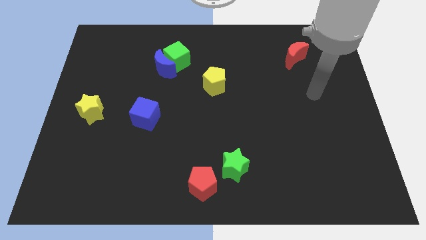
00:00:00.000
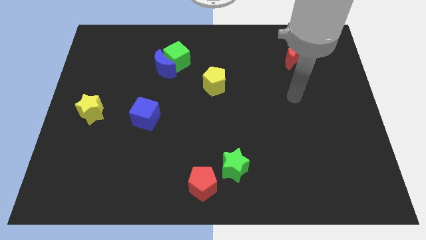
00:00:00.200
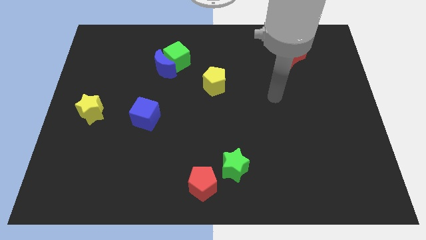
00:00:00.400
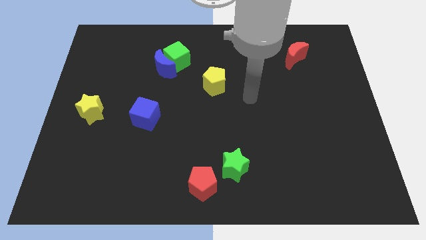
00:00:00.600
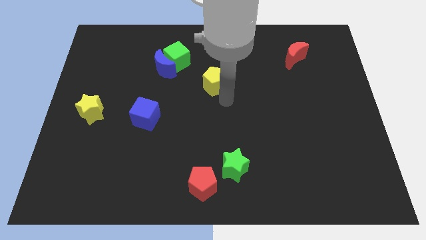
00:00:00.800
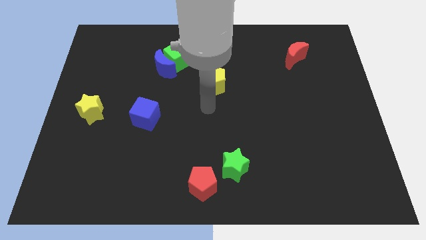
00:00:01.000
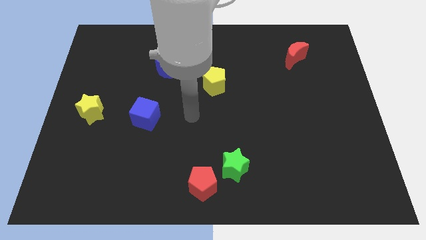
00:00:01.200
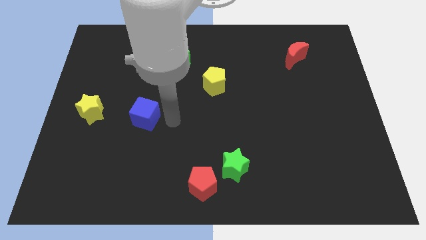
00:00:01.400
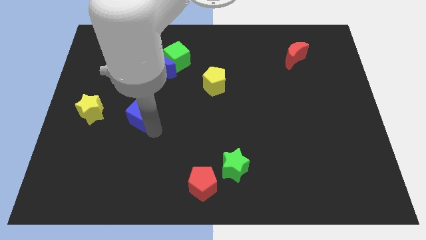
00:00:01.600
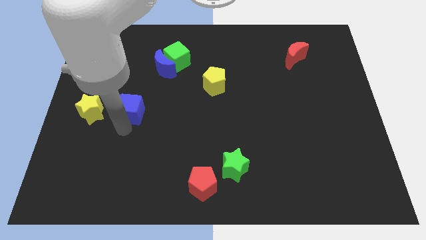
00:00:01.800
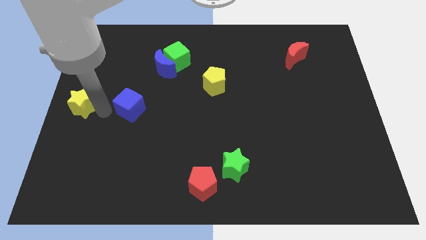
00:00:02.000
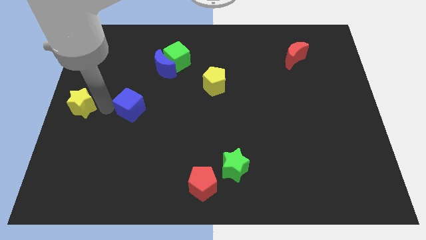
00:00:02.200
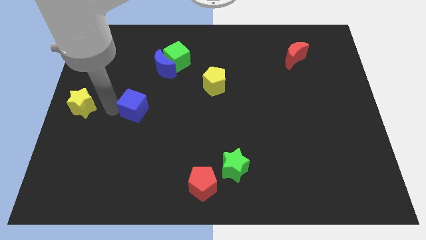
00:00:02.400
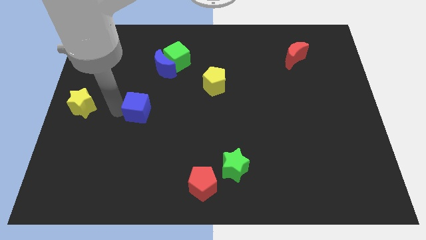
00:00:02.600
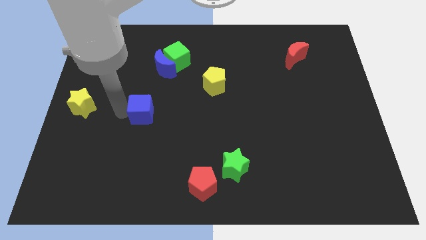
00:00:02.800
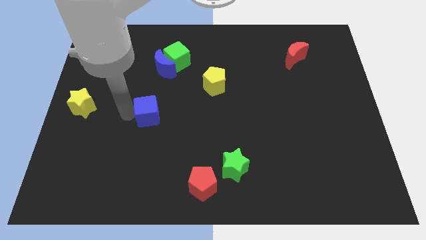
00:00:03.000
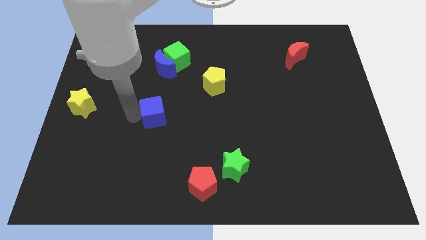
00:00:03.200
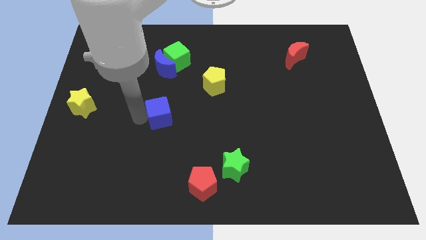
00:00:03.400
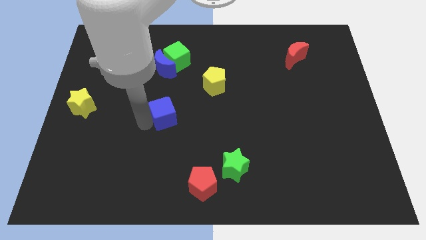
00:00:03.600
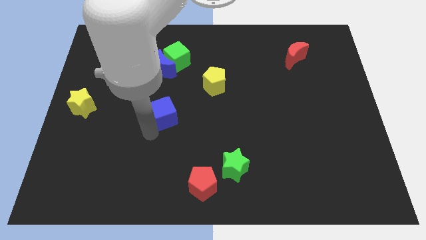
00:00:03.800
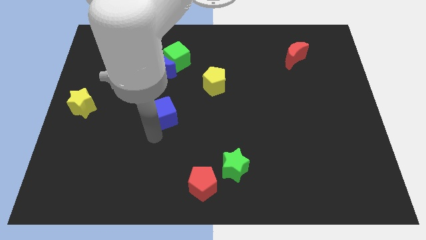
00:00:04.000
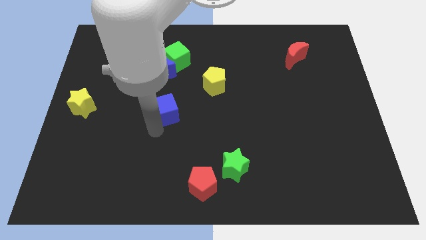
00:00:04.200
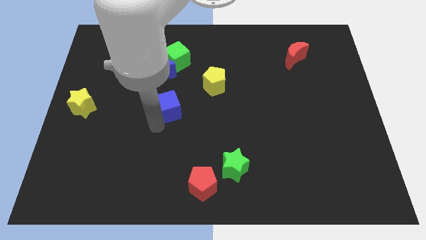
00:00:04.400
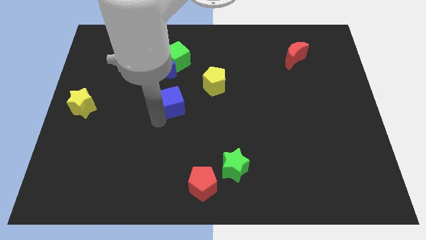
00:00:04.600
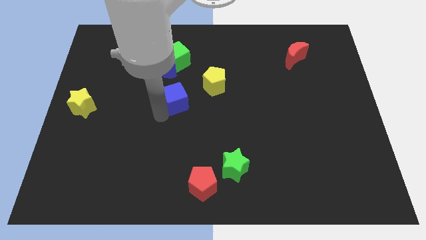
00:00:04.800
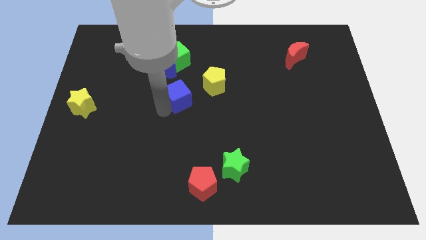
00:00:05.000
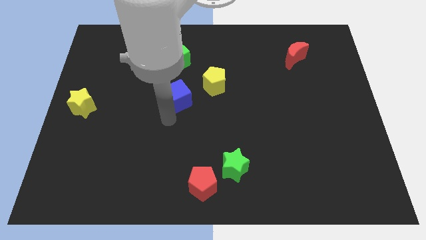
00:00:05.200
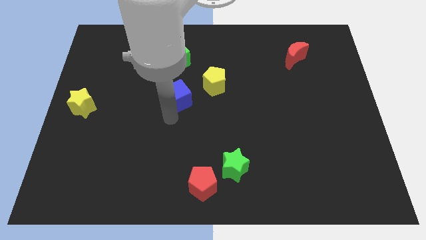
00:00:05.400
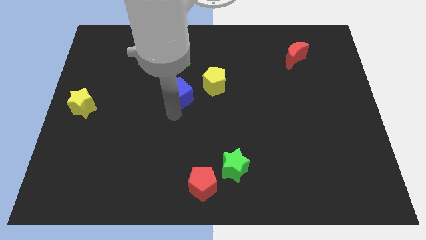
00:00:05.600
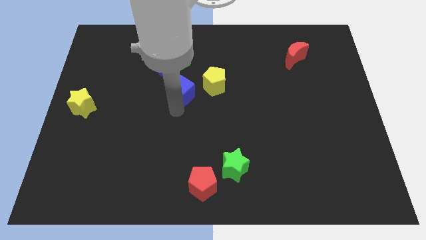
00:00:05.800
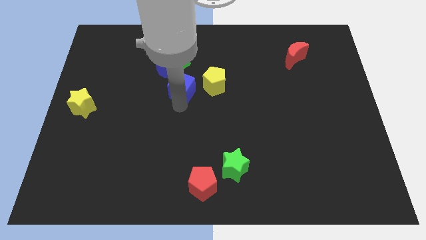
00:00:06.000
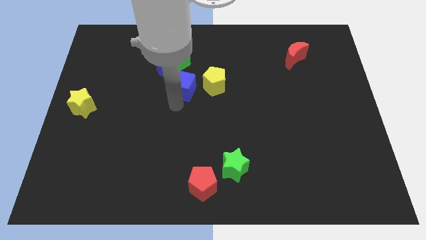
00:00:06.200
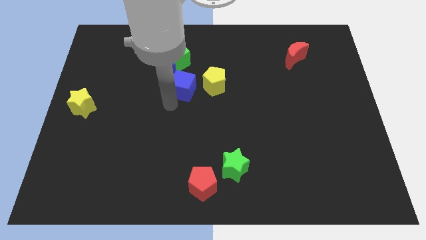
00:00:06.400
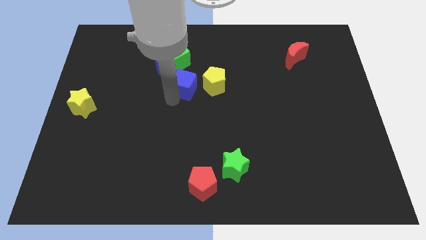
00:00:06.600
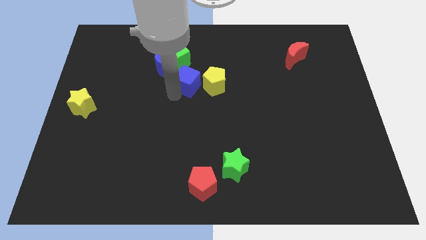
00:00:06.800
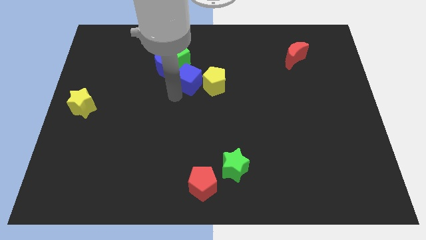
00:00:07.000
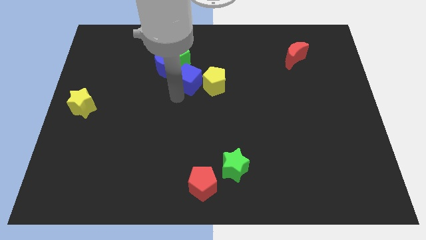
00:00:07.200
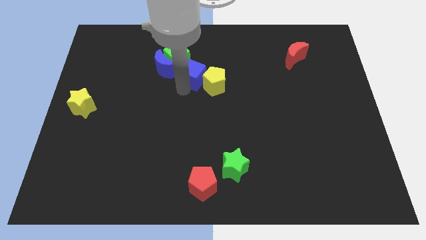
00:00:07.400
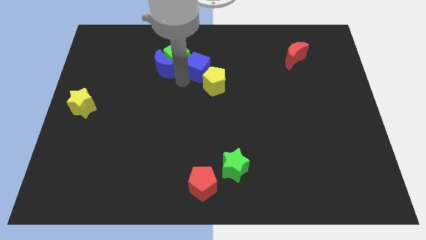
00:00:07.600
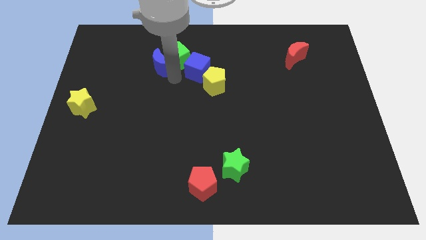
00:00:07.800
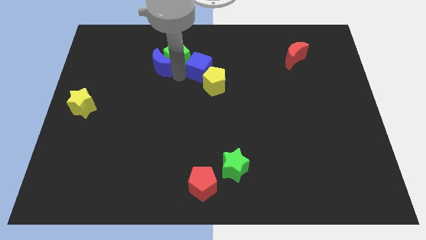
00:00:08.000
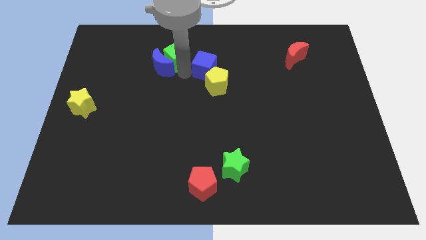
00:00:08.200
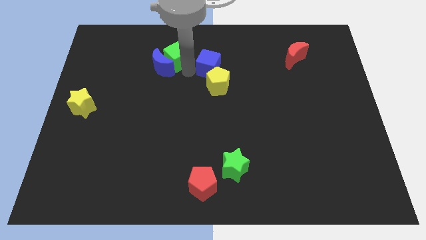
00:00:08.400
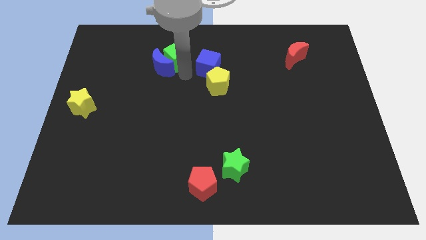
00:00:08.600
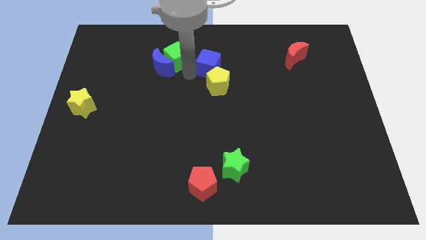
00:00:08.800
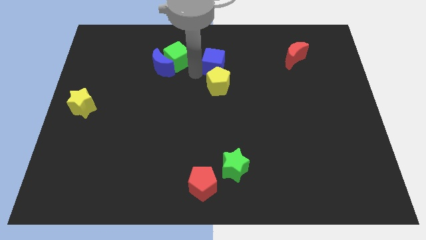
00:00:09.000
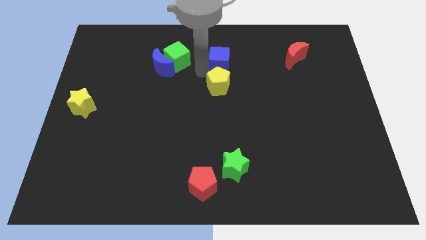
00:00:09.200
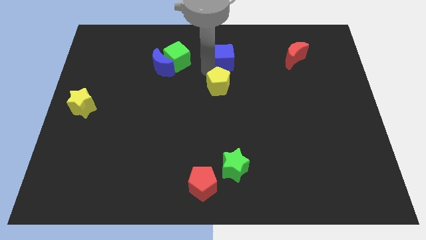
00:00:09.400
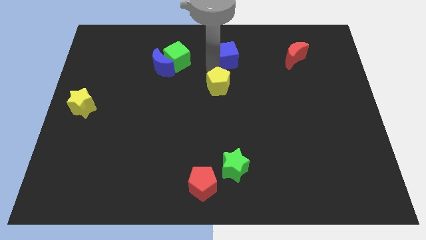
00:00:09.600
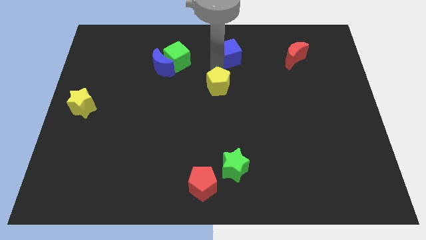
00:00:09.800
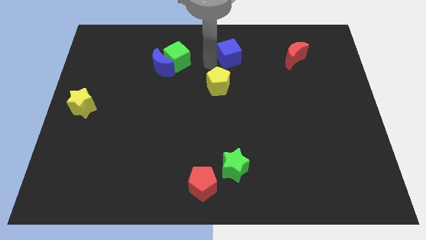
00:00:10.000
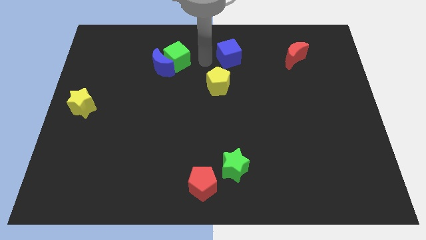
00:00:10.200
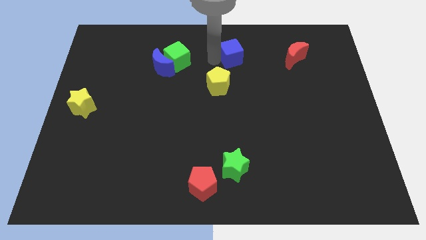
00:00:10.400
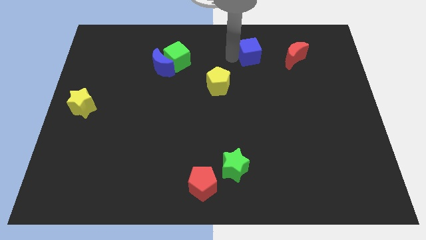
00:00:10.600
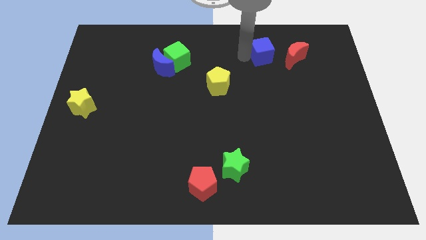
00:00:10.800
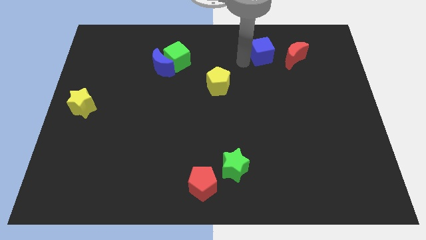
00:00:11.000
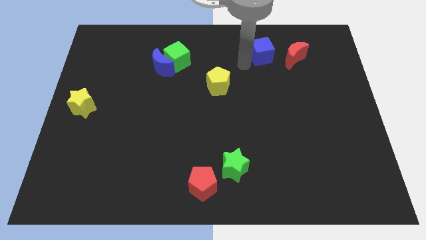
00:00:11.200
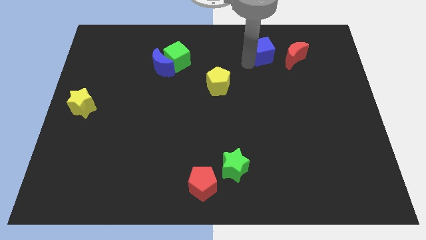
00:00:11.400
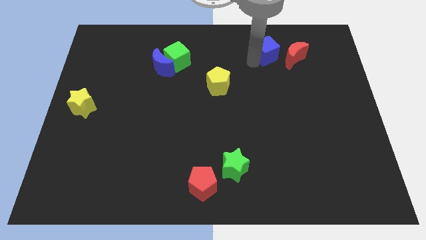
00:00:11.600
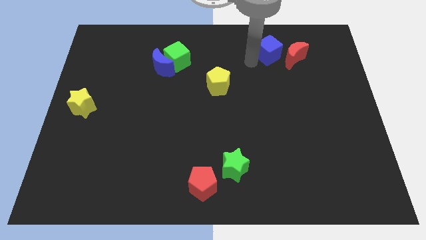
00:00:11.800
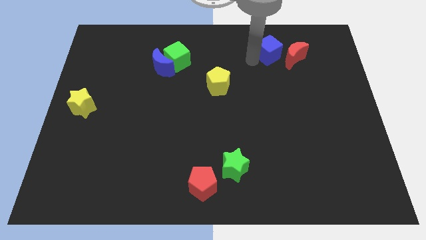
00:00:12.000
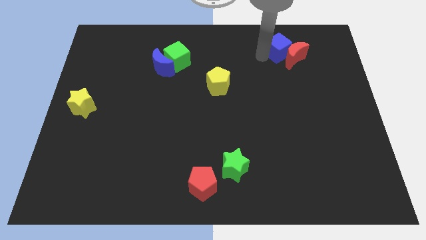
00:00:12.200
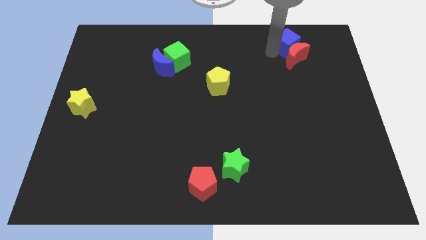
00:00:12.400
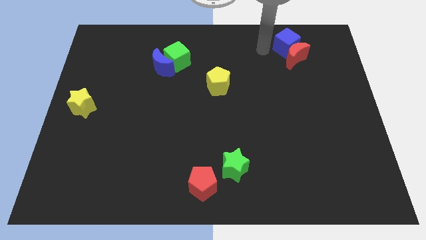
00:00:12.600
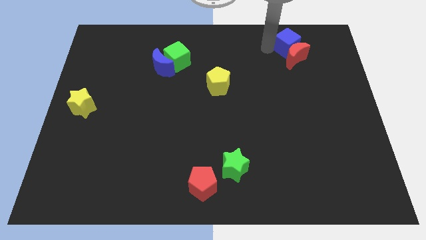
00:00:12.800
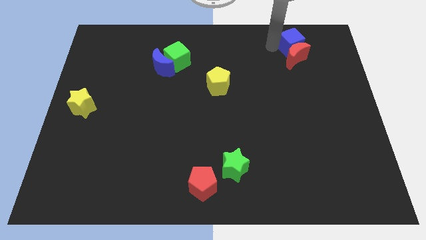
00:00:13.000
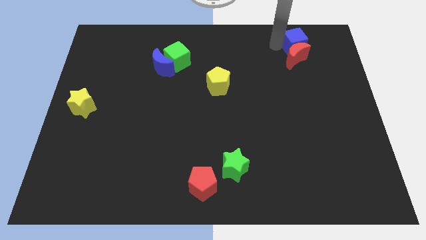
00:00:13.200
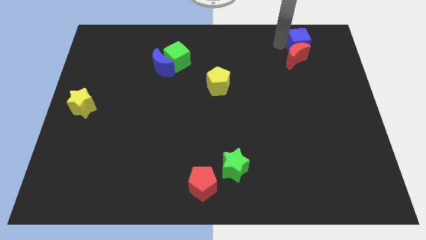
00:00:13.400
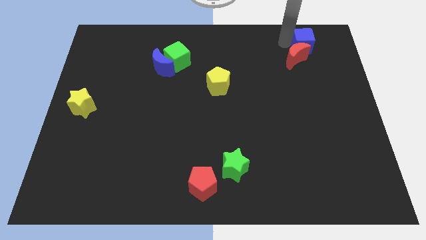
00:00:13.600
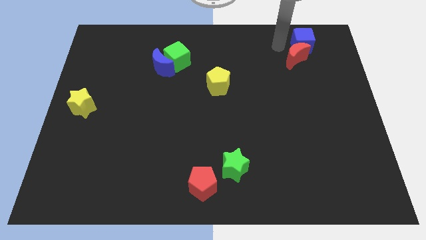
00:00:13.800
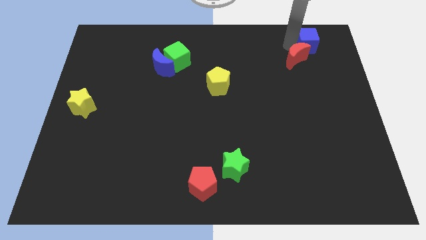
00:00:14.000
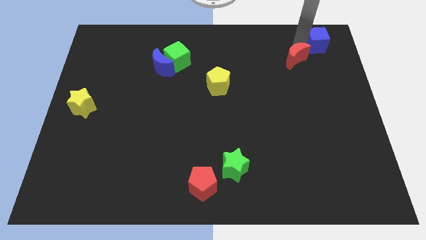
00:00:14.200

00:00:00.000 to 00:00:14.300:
put the blue cube to the upper right corner
